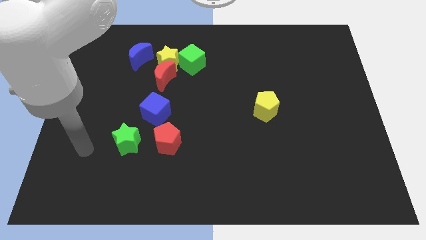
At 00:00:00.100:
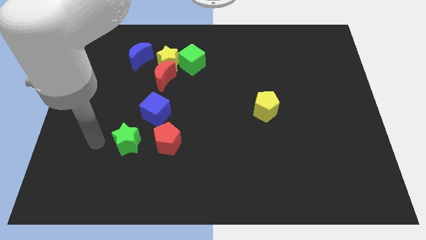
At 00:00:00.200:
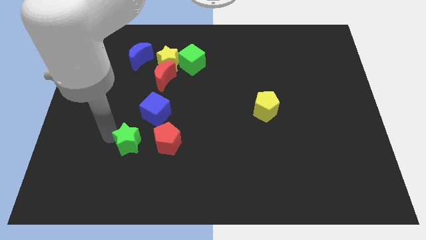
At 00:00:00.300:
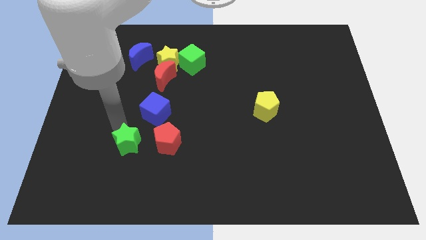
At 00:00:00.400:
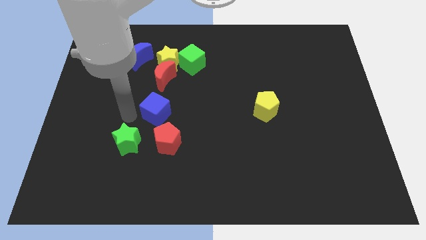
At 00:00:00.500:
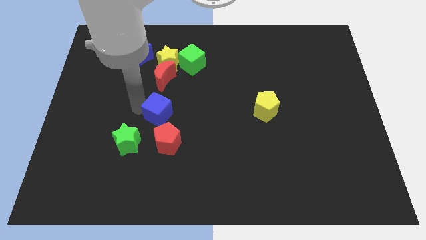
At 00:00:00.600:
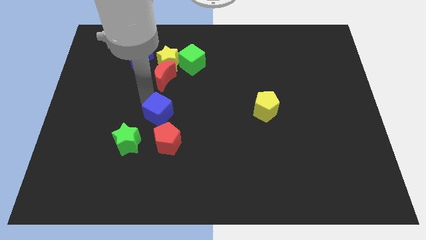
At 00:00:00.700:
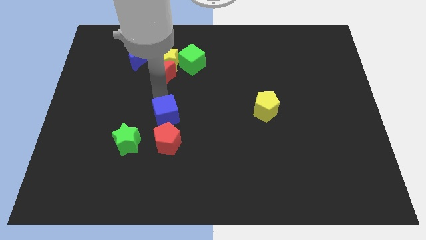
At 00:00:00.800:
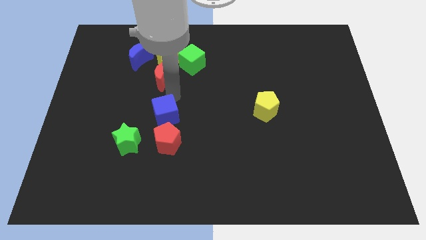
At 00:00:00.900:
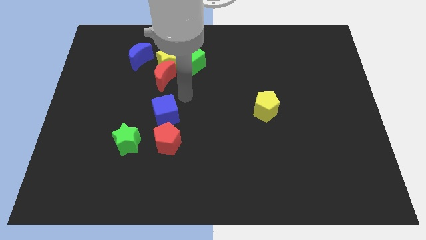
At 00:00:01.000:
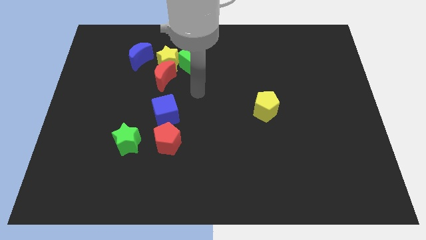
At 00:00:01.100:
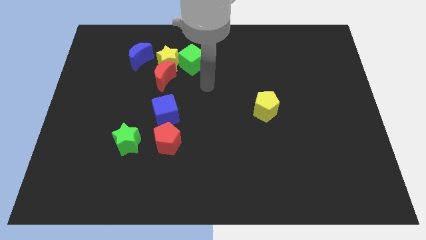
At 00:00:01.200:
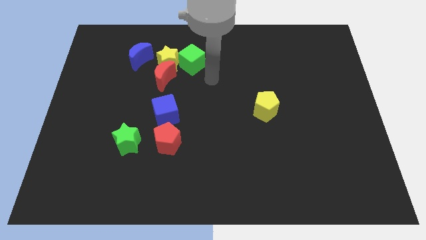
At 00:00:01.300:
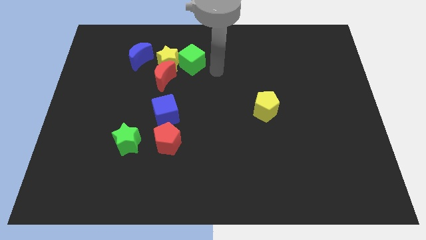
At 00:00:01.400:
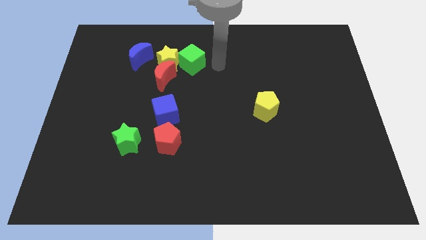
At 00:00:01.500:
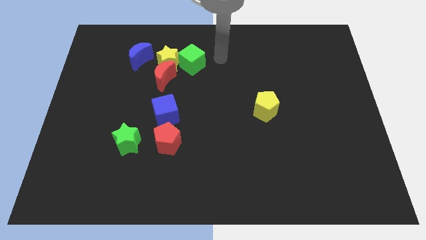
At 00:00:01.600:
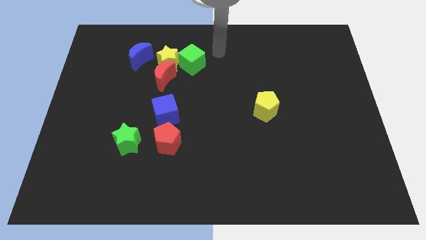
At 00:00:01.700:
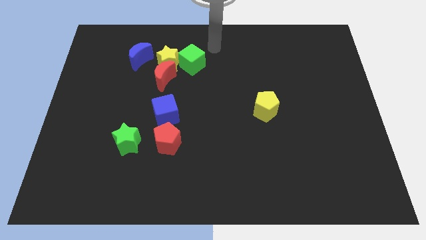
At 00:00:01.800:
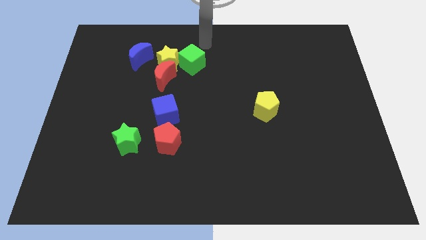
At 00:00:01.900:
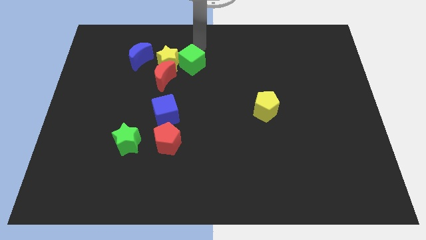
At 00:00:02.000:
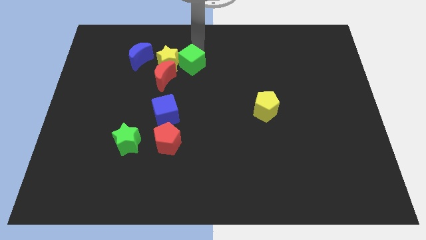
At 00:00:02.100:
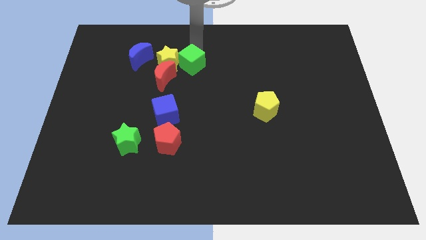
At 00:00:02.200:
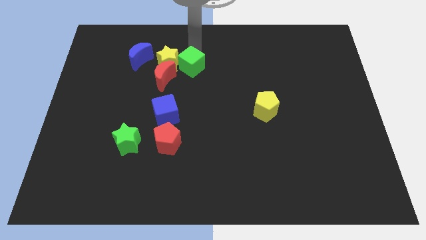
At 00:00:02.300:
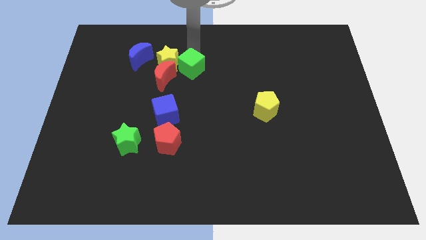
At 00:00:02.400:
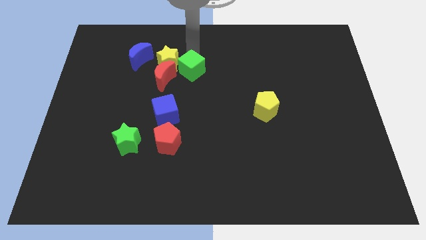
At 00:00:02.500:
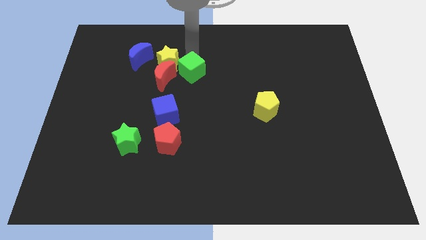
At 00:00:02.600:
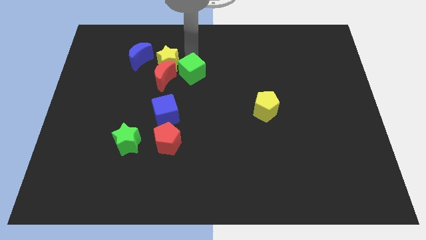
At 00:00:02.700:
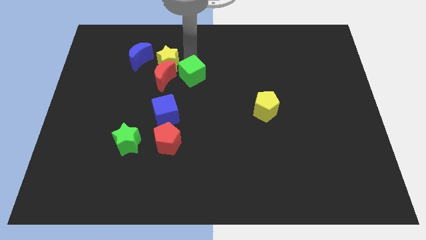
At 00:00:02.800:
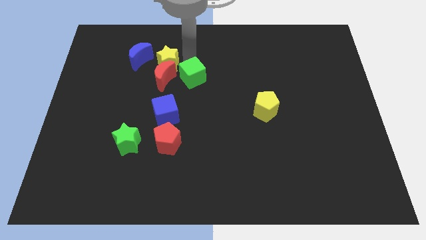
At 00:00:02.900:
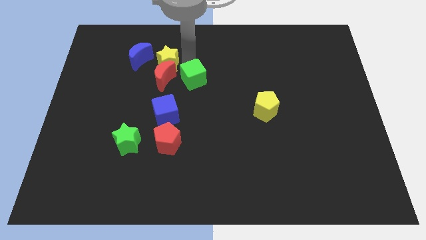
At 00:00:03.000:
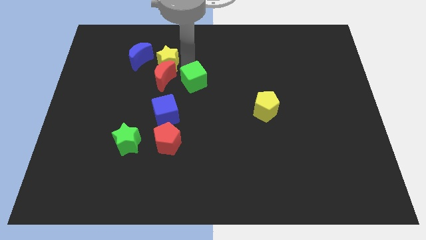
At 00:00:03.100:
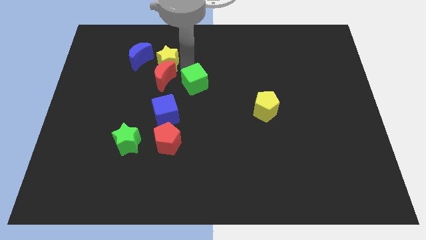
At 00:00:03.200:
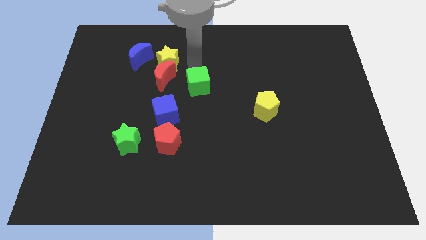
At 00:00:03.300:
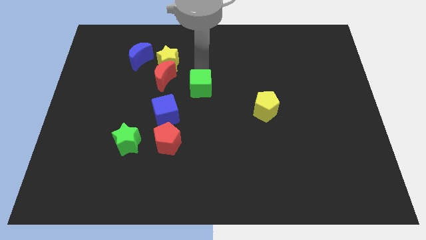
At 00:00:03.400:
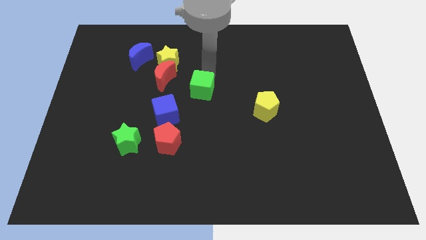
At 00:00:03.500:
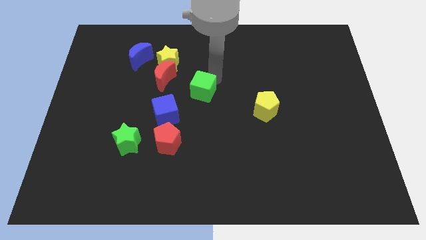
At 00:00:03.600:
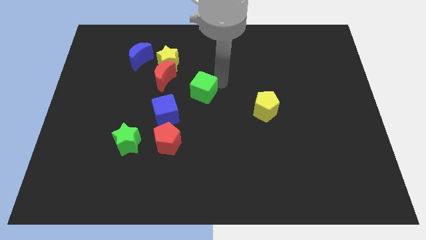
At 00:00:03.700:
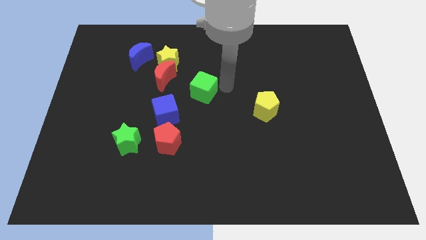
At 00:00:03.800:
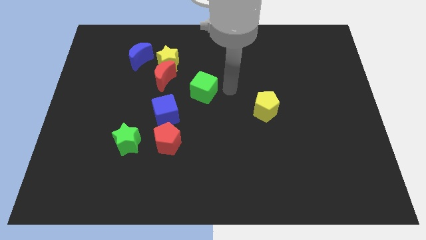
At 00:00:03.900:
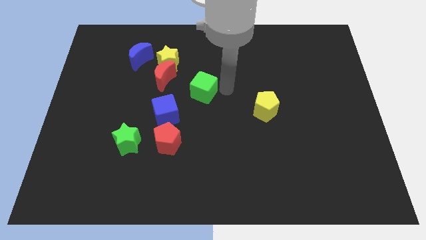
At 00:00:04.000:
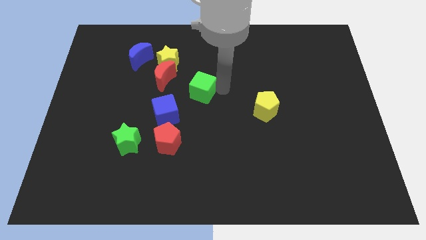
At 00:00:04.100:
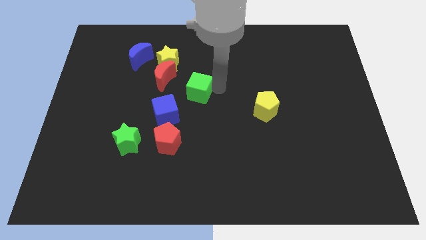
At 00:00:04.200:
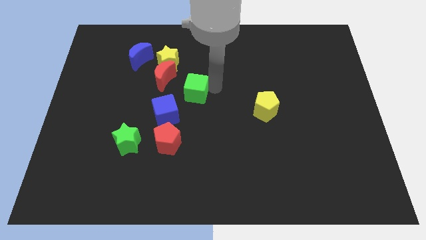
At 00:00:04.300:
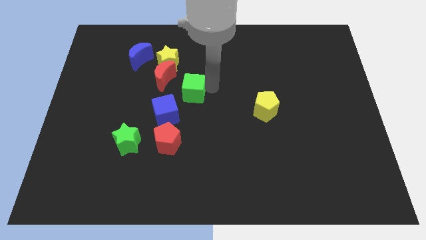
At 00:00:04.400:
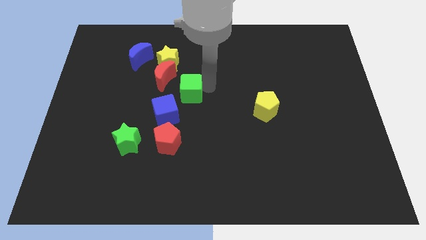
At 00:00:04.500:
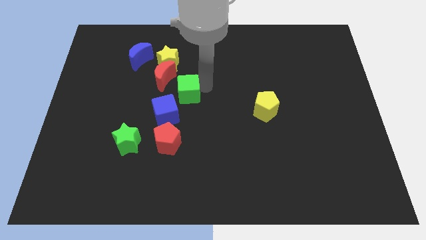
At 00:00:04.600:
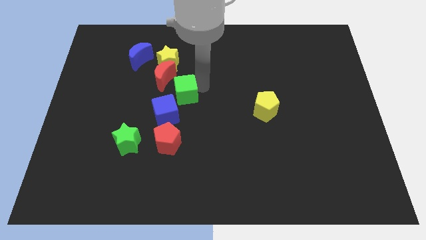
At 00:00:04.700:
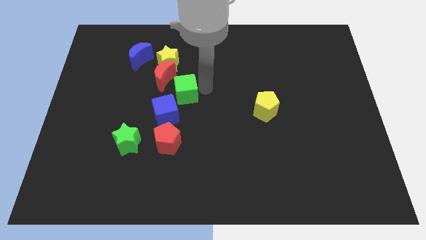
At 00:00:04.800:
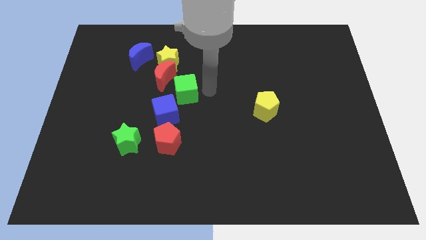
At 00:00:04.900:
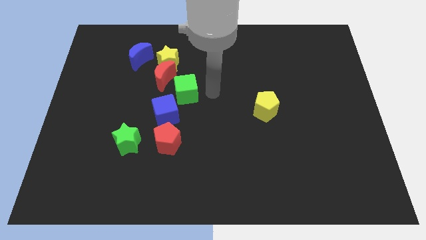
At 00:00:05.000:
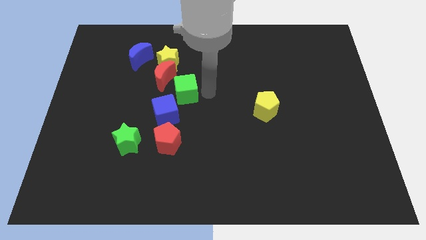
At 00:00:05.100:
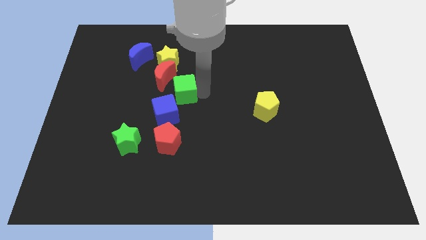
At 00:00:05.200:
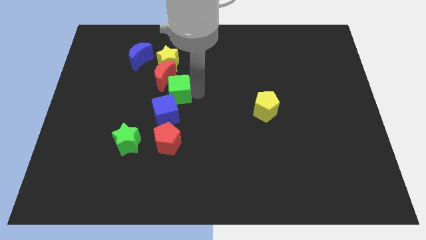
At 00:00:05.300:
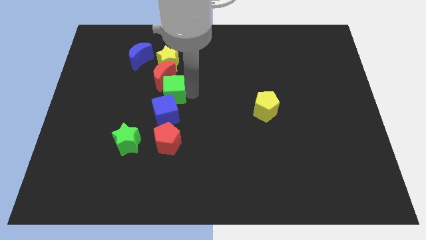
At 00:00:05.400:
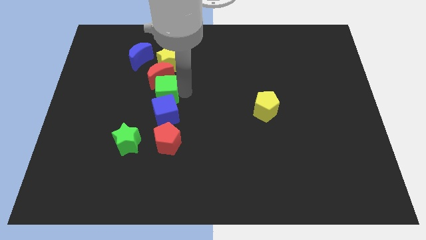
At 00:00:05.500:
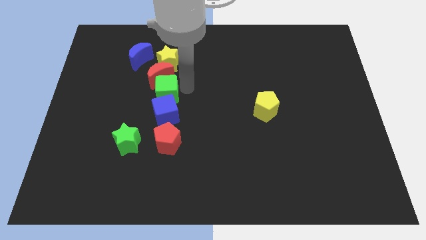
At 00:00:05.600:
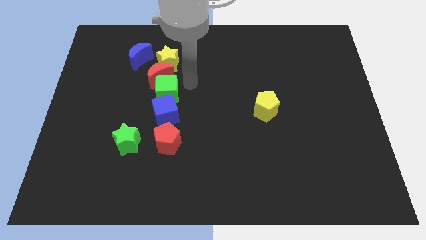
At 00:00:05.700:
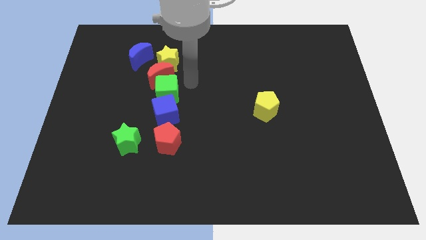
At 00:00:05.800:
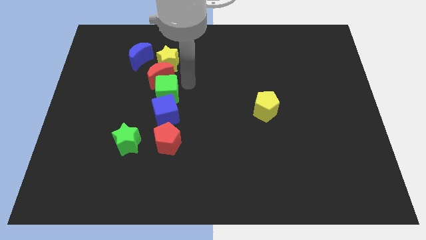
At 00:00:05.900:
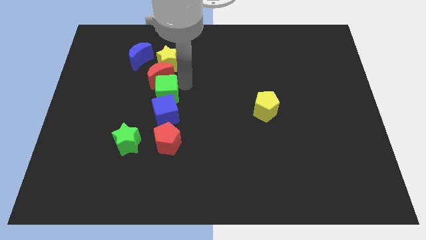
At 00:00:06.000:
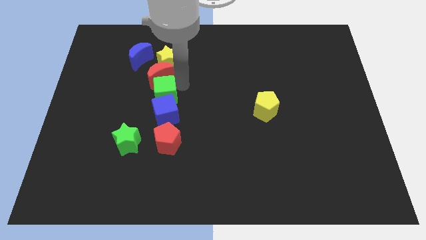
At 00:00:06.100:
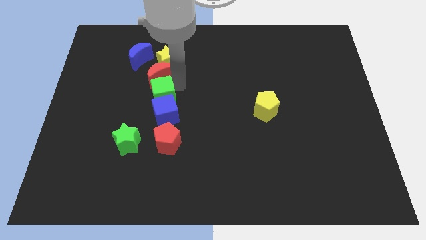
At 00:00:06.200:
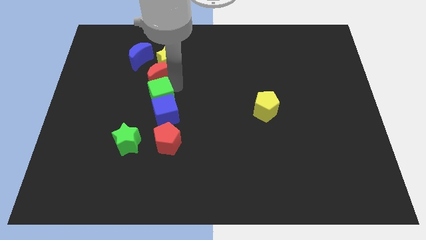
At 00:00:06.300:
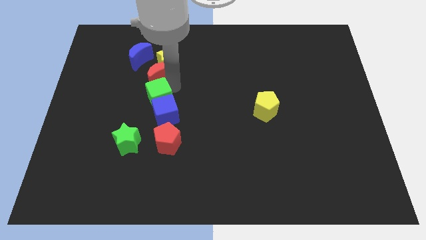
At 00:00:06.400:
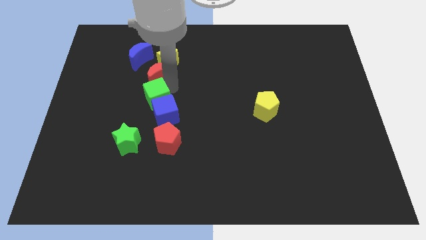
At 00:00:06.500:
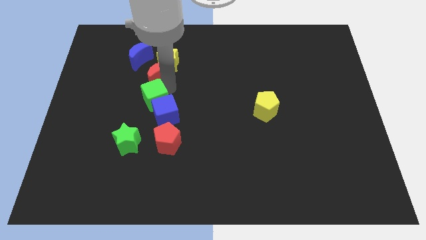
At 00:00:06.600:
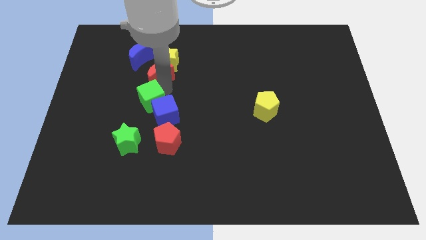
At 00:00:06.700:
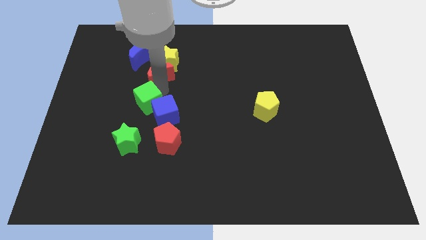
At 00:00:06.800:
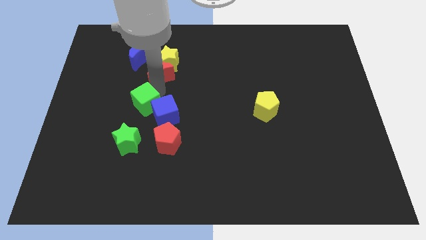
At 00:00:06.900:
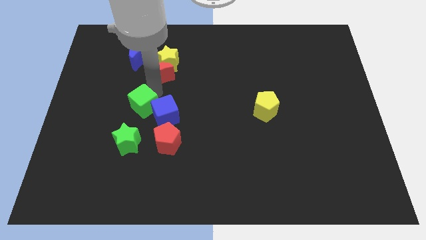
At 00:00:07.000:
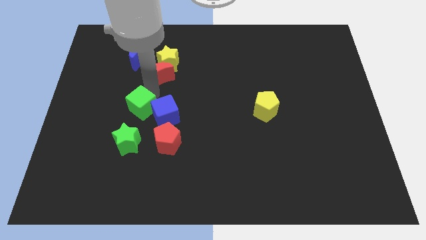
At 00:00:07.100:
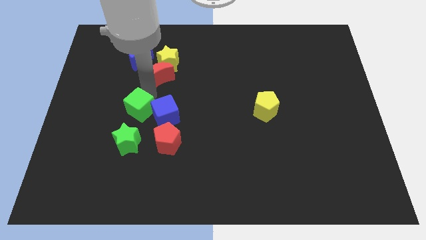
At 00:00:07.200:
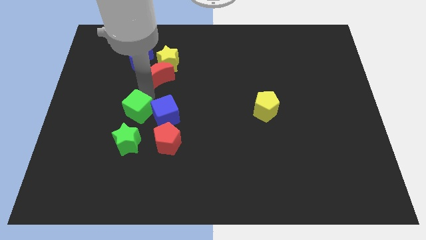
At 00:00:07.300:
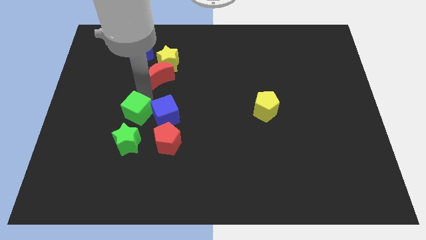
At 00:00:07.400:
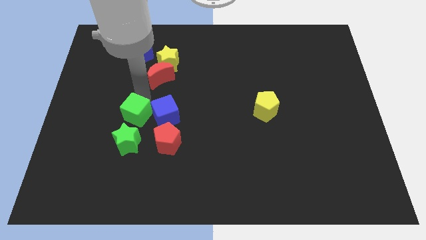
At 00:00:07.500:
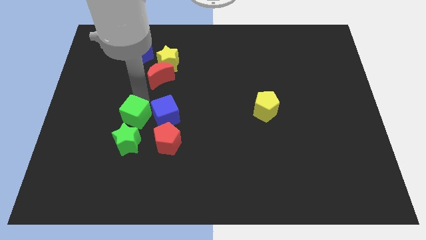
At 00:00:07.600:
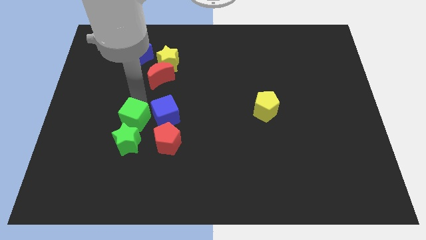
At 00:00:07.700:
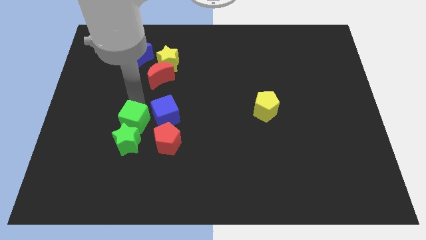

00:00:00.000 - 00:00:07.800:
put the green cube next to the green star
